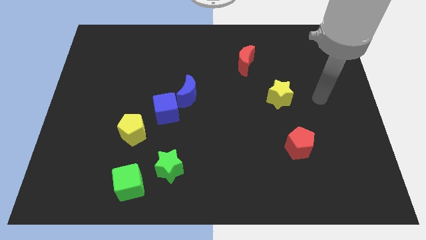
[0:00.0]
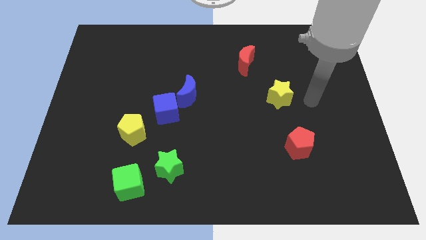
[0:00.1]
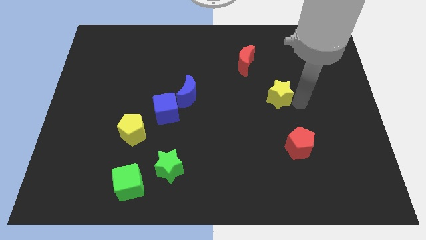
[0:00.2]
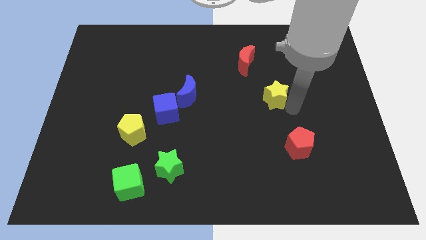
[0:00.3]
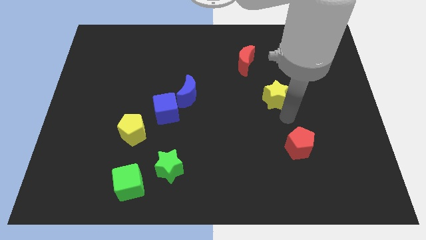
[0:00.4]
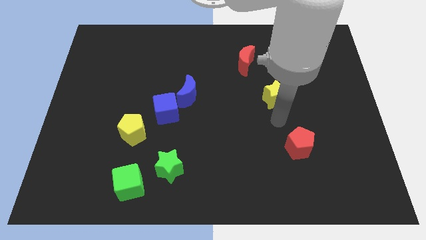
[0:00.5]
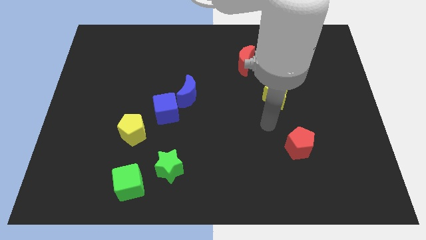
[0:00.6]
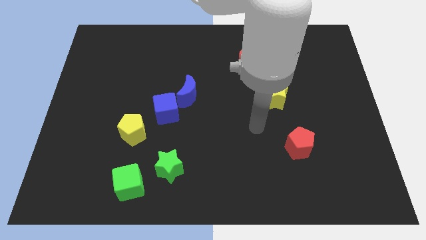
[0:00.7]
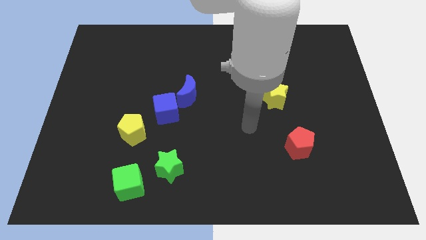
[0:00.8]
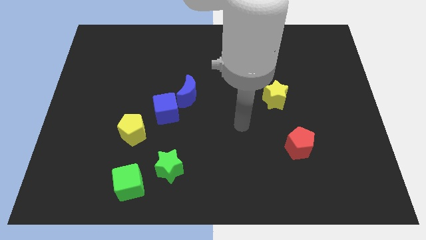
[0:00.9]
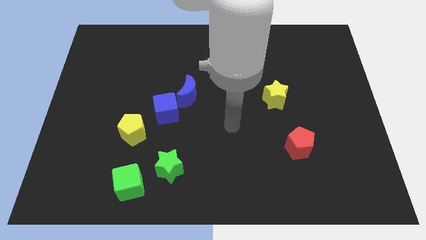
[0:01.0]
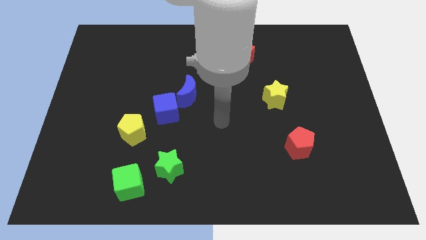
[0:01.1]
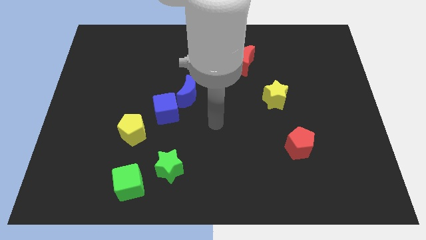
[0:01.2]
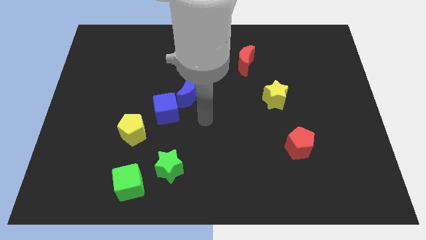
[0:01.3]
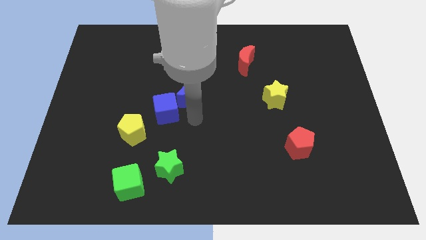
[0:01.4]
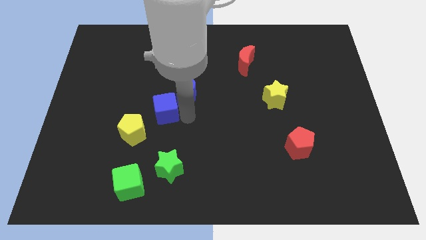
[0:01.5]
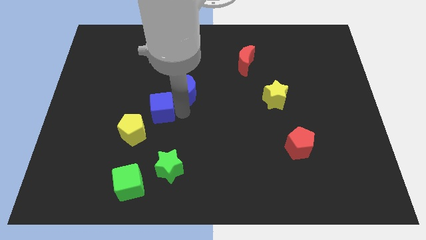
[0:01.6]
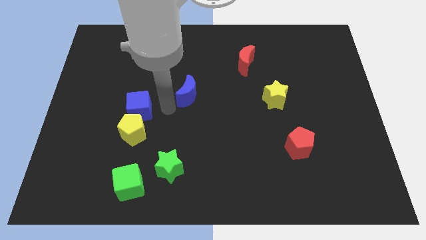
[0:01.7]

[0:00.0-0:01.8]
move the blue moon away from the blue cube

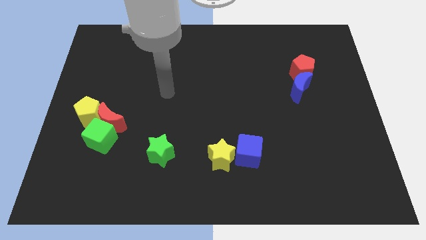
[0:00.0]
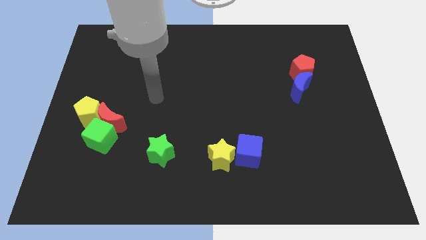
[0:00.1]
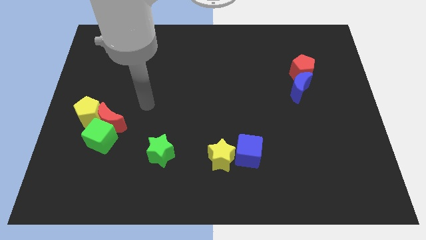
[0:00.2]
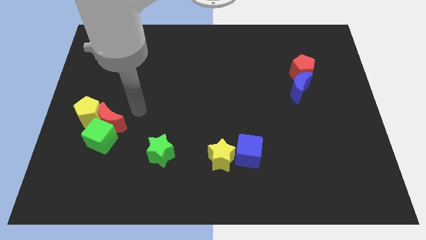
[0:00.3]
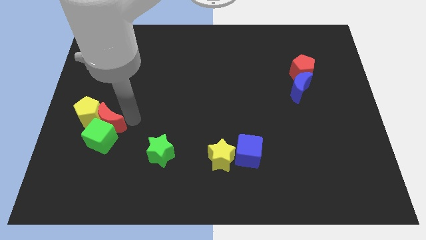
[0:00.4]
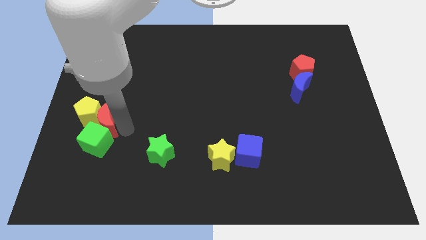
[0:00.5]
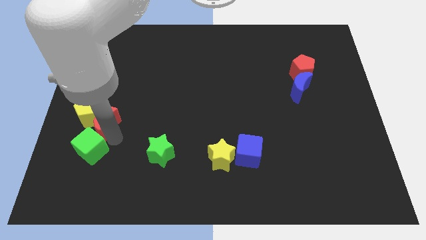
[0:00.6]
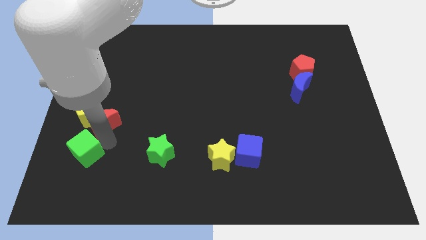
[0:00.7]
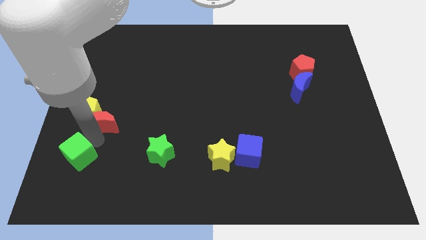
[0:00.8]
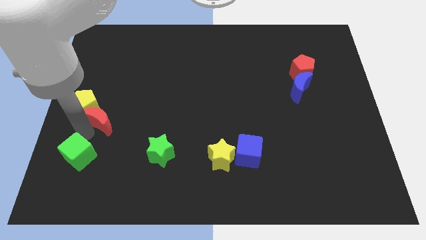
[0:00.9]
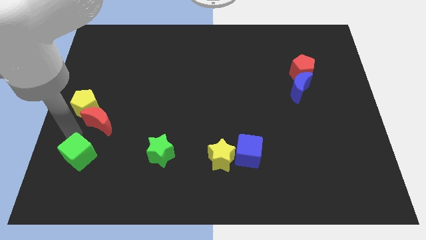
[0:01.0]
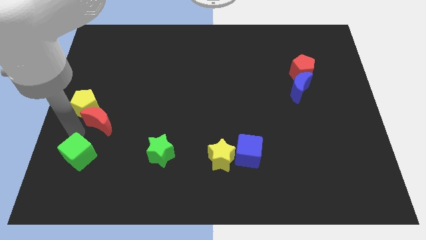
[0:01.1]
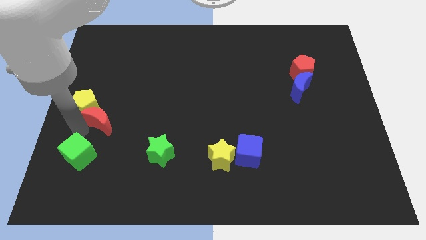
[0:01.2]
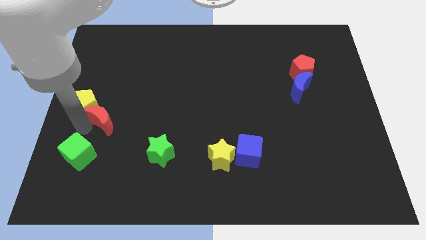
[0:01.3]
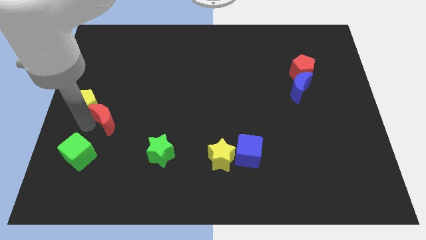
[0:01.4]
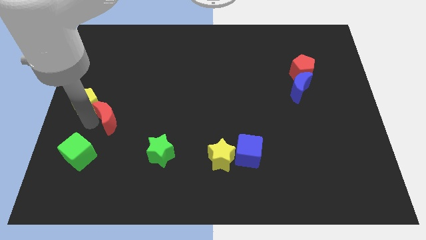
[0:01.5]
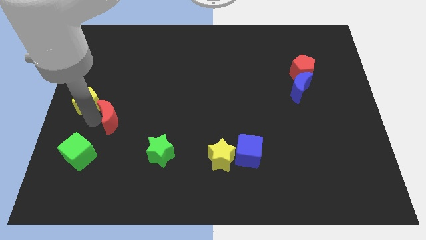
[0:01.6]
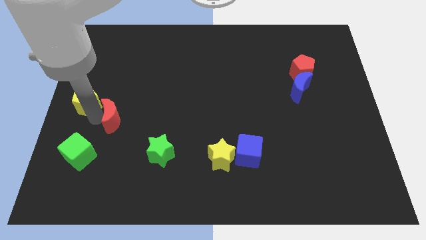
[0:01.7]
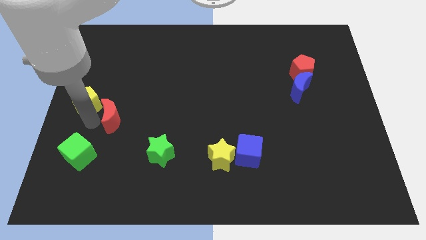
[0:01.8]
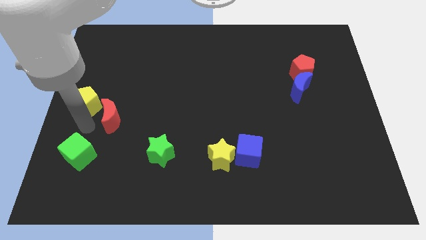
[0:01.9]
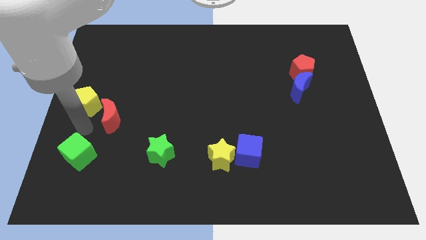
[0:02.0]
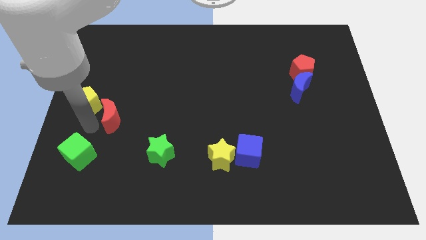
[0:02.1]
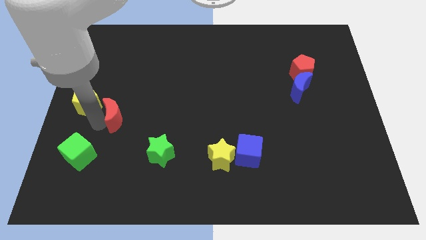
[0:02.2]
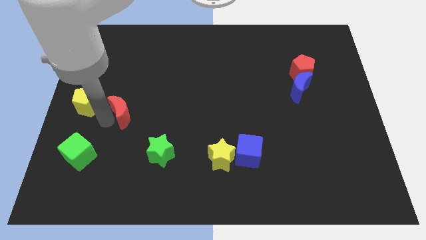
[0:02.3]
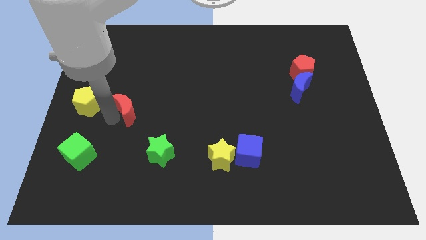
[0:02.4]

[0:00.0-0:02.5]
pull the red moon apart from the green cube and yellow pentagon

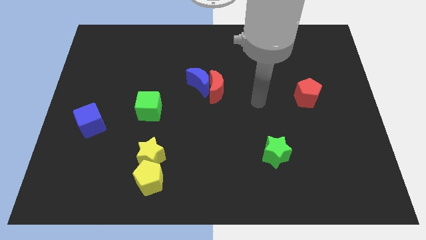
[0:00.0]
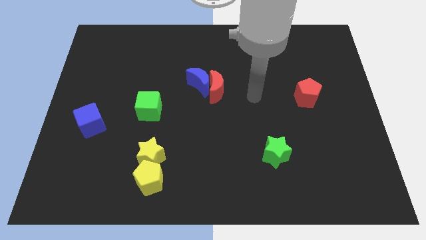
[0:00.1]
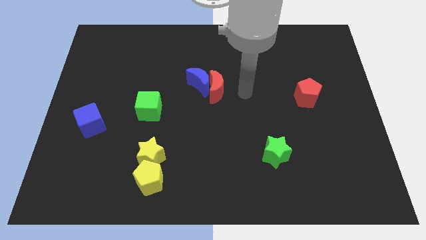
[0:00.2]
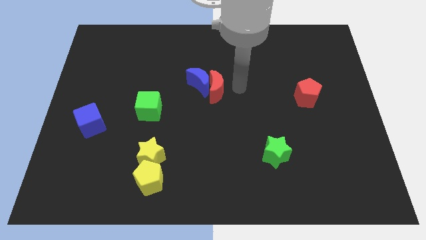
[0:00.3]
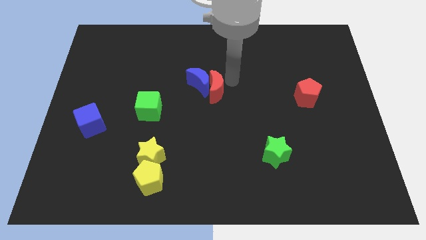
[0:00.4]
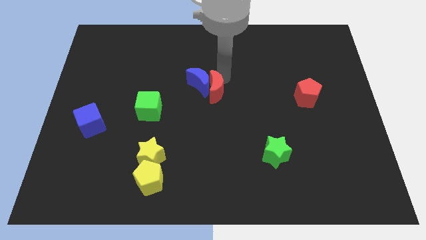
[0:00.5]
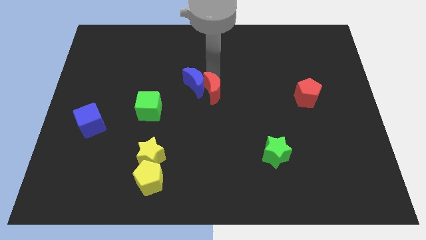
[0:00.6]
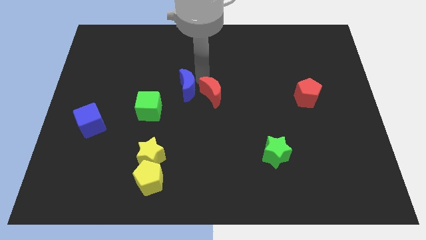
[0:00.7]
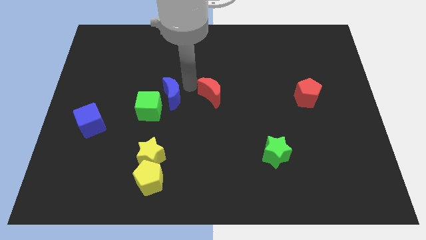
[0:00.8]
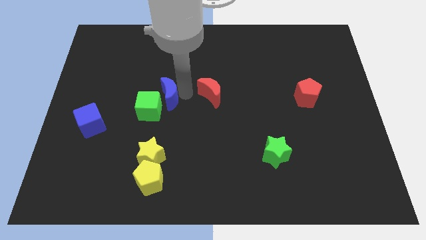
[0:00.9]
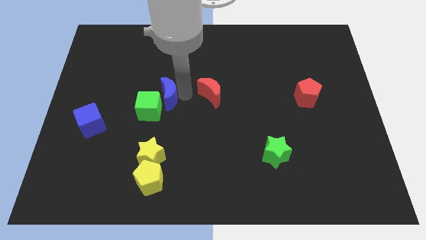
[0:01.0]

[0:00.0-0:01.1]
pull the red moon apart from the blue moon

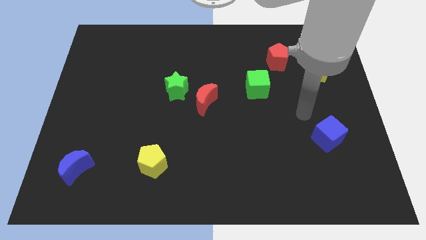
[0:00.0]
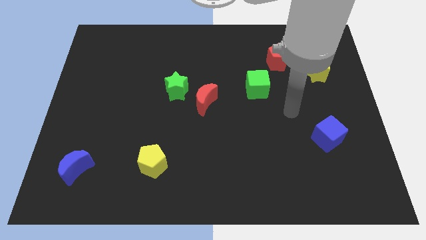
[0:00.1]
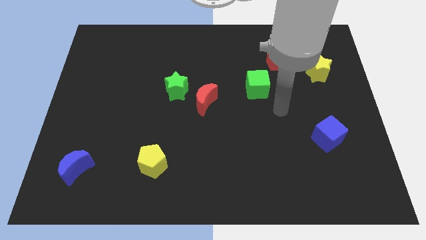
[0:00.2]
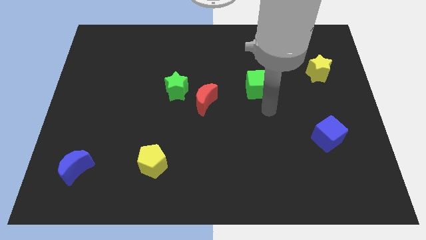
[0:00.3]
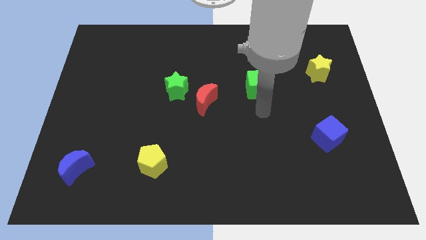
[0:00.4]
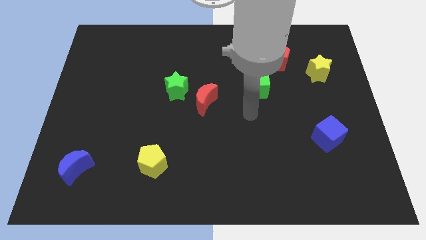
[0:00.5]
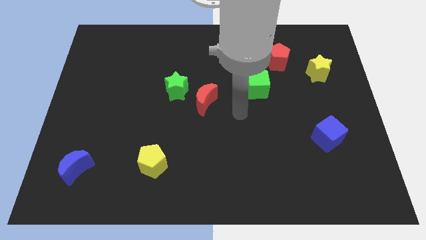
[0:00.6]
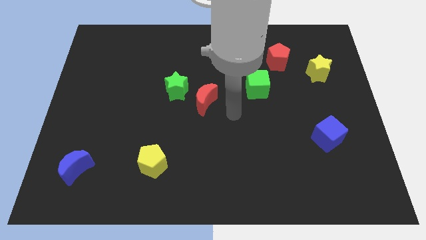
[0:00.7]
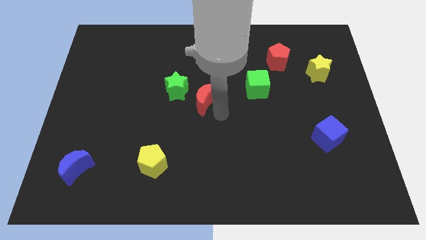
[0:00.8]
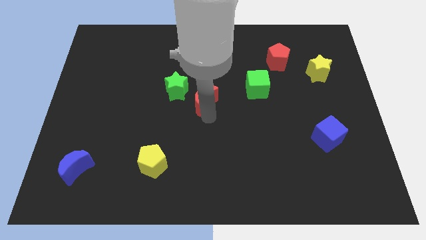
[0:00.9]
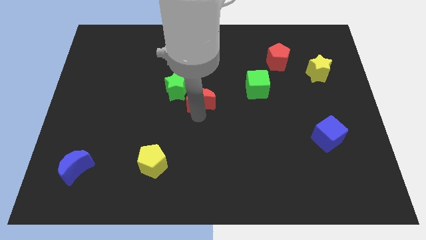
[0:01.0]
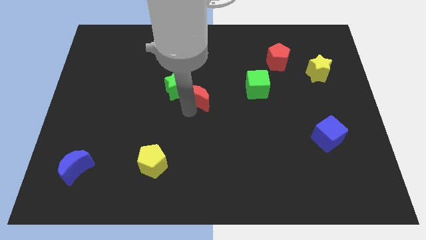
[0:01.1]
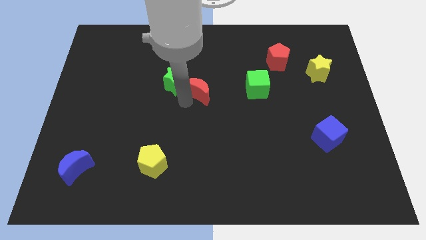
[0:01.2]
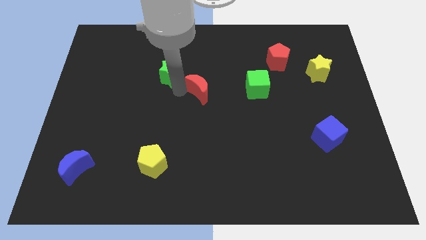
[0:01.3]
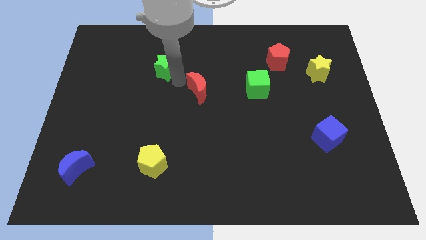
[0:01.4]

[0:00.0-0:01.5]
separate the red moon from the green star

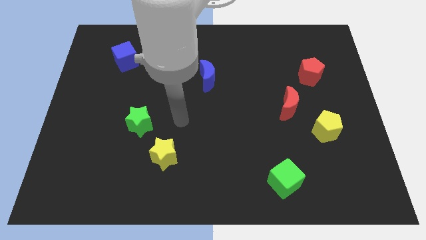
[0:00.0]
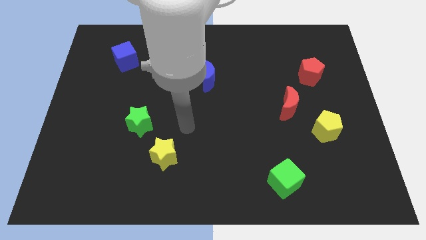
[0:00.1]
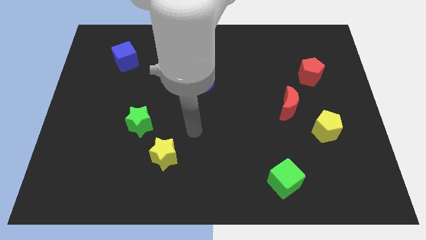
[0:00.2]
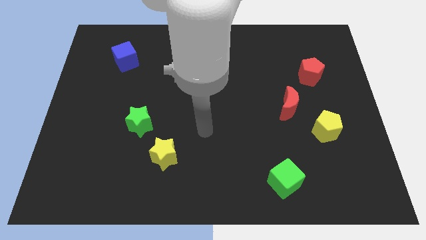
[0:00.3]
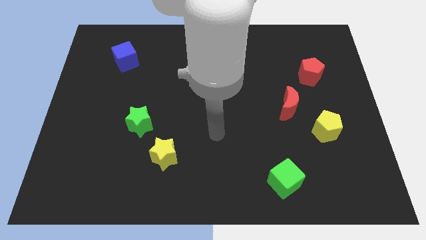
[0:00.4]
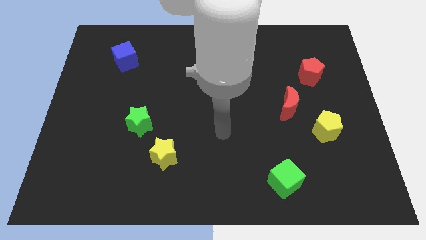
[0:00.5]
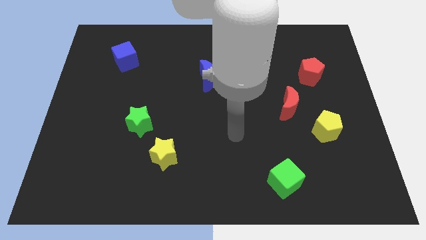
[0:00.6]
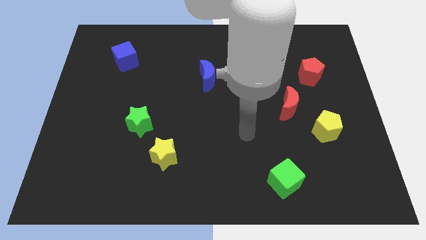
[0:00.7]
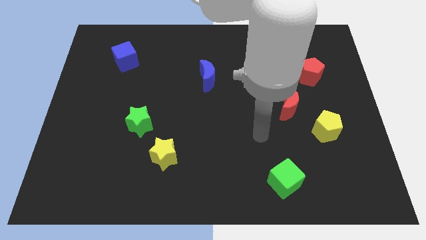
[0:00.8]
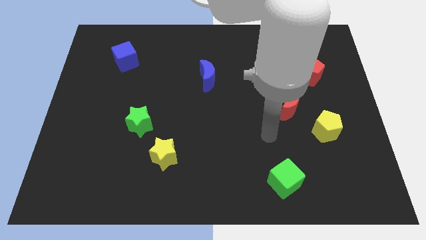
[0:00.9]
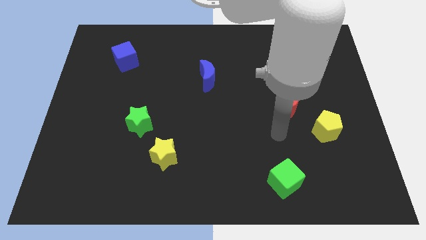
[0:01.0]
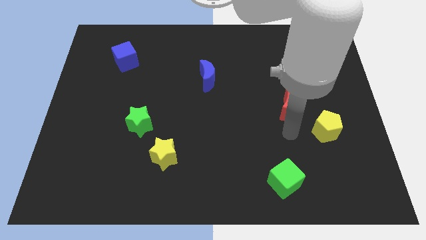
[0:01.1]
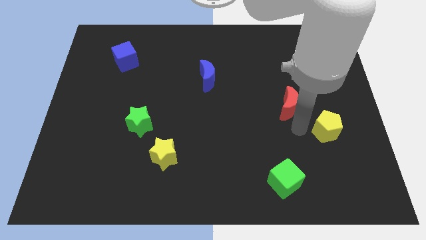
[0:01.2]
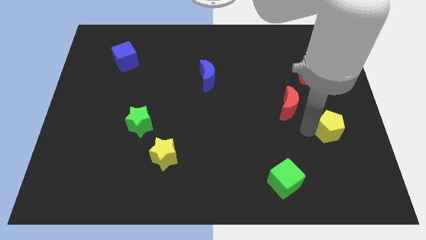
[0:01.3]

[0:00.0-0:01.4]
separate the red moon from the yellow pentagon

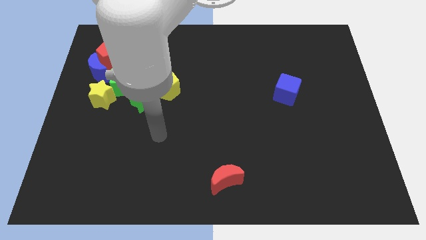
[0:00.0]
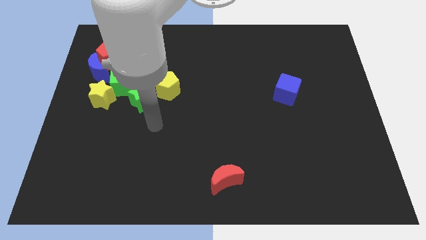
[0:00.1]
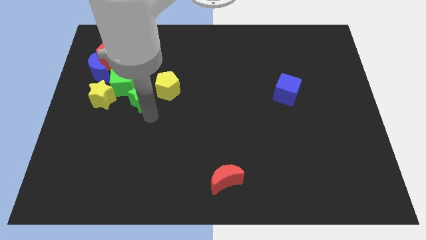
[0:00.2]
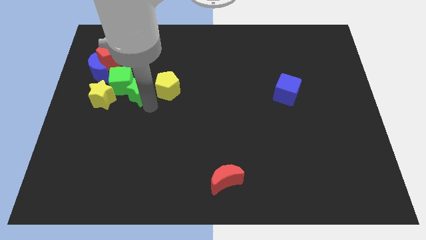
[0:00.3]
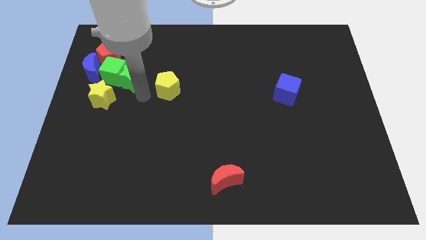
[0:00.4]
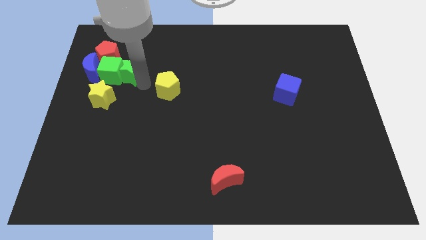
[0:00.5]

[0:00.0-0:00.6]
move the yellow pentagon away from the green star

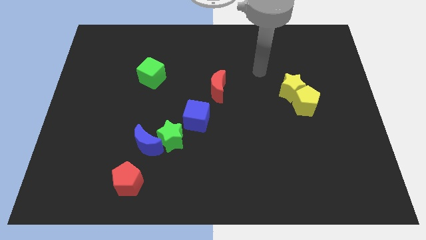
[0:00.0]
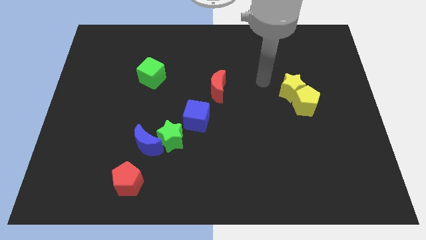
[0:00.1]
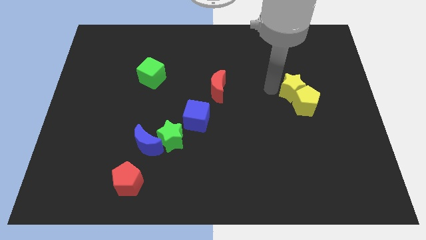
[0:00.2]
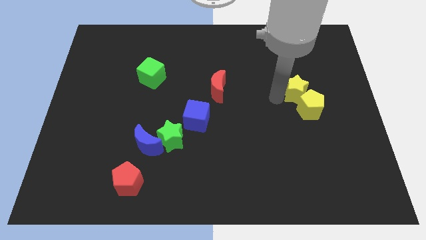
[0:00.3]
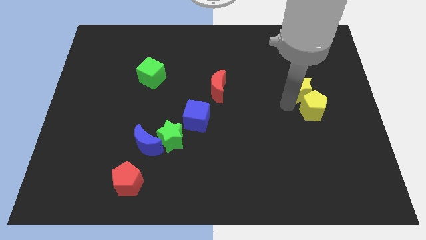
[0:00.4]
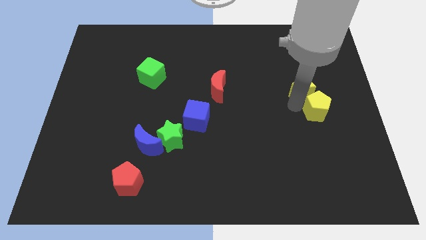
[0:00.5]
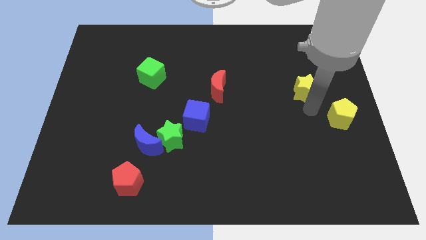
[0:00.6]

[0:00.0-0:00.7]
separate the yellow star from the yellow pentagon
